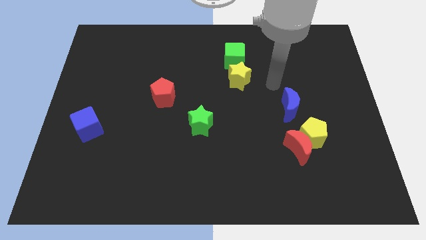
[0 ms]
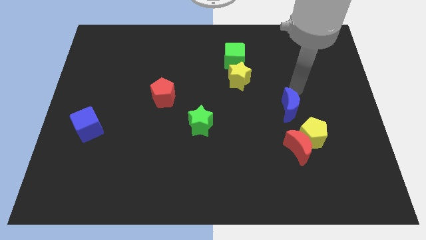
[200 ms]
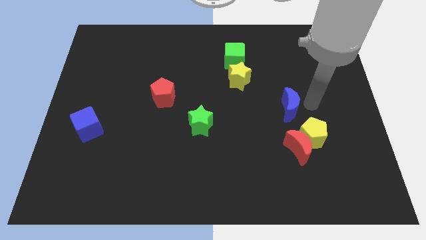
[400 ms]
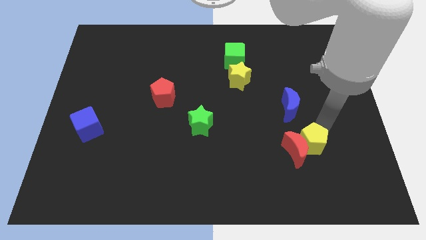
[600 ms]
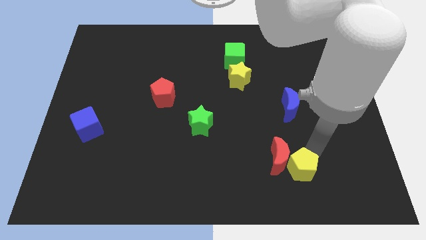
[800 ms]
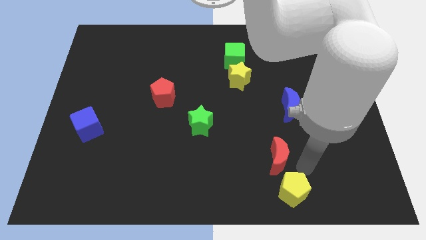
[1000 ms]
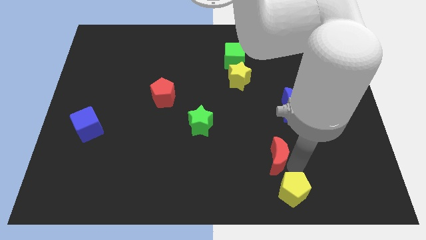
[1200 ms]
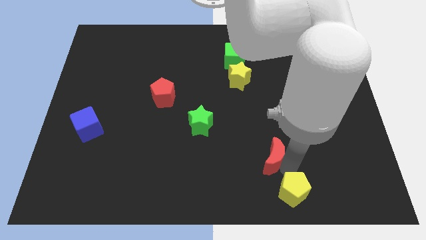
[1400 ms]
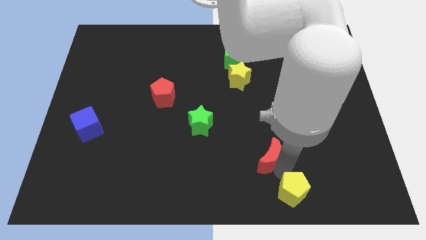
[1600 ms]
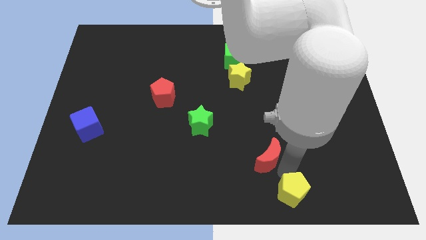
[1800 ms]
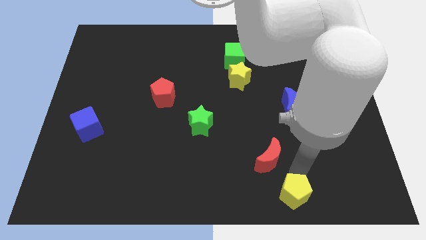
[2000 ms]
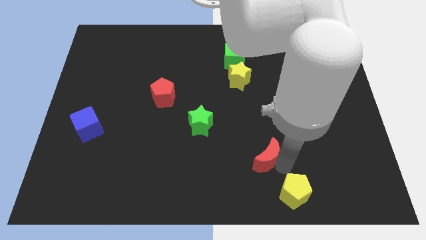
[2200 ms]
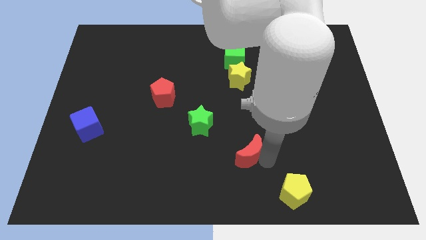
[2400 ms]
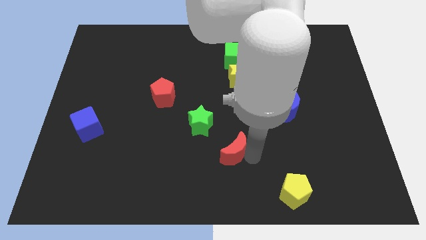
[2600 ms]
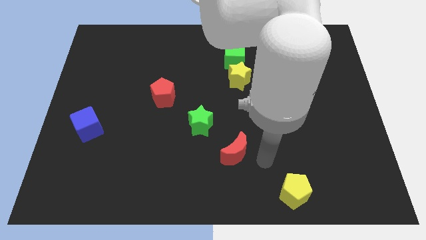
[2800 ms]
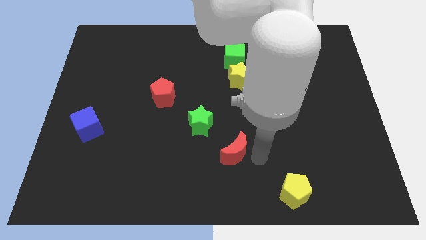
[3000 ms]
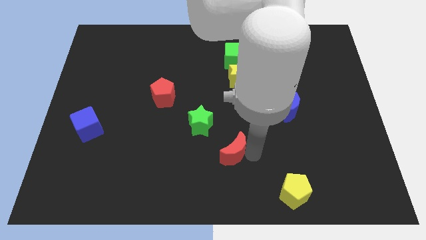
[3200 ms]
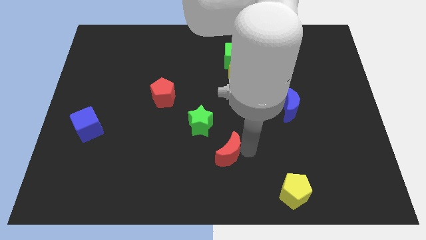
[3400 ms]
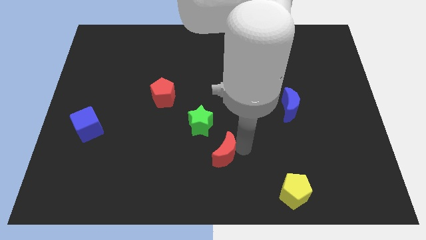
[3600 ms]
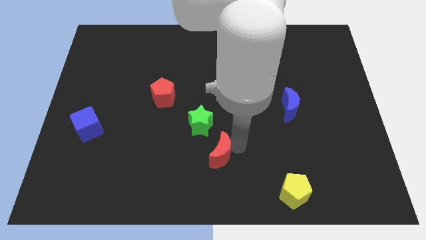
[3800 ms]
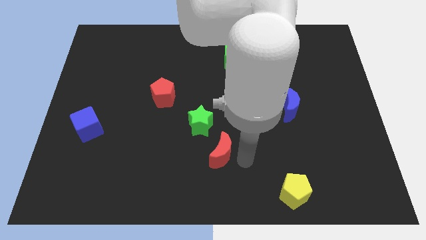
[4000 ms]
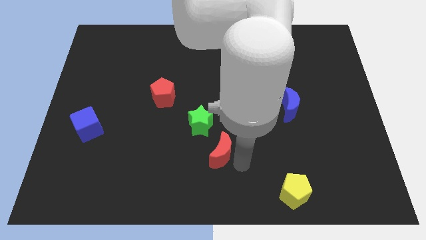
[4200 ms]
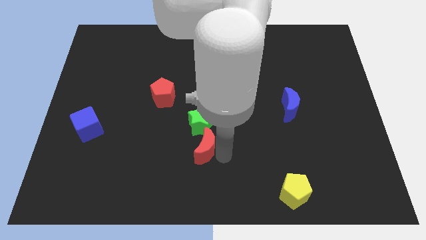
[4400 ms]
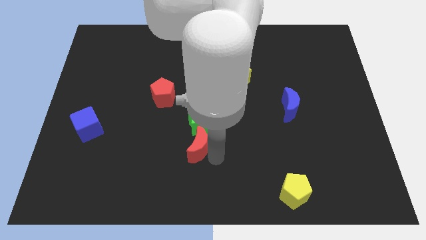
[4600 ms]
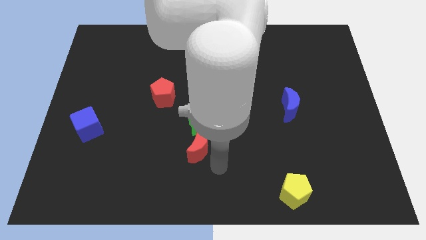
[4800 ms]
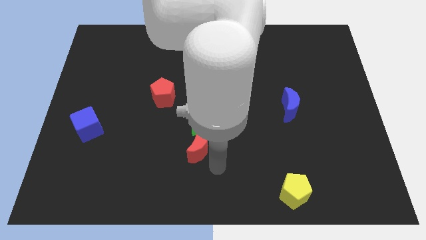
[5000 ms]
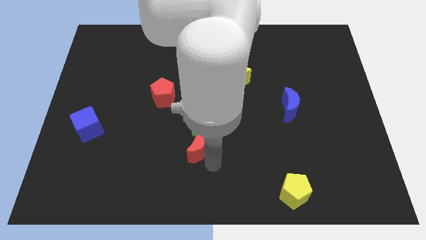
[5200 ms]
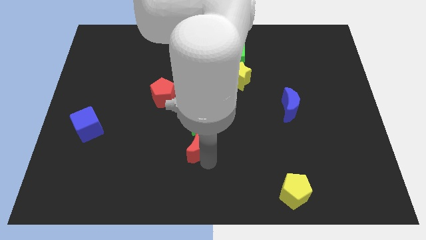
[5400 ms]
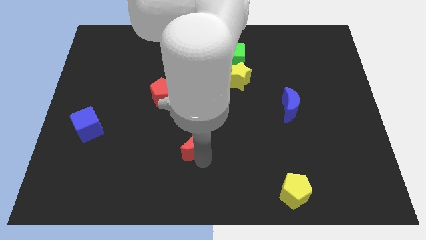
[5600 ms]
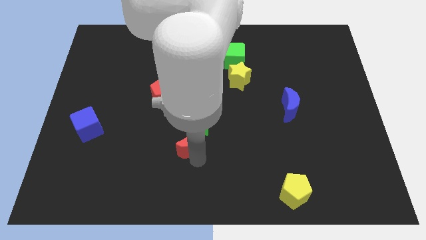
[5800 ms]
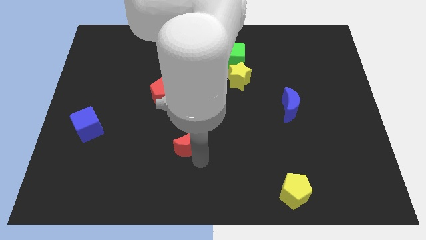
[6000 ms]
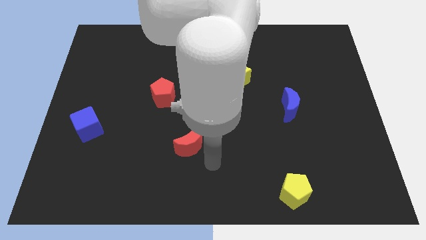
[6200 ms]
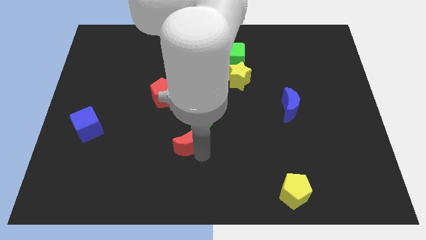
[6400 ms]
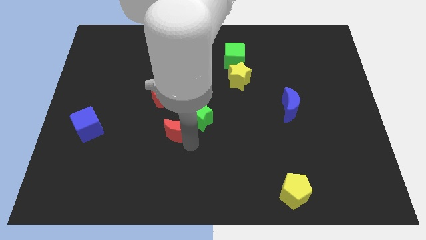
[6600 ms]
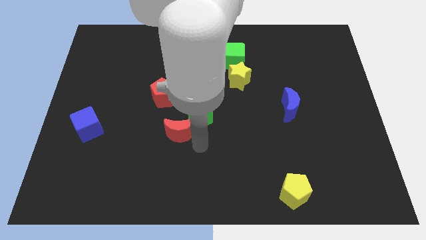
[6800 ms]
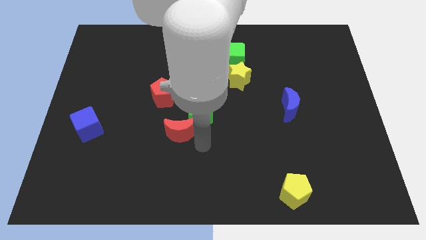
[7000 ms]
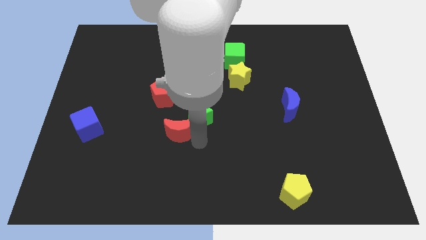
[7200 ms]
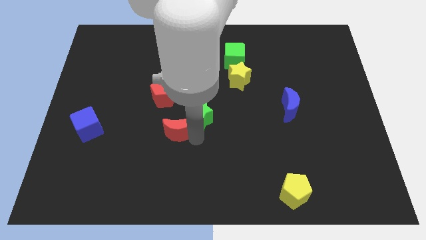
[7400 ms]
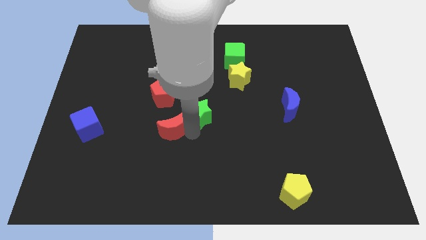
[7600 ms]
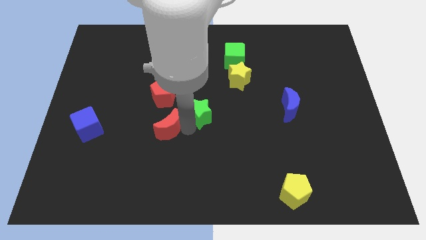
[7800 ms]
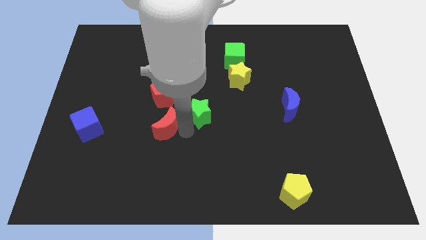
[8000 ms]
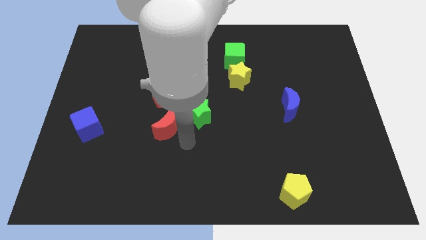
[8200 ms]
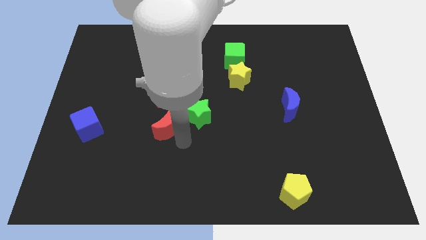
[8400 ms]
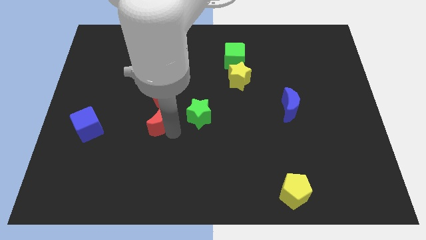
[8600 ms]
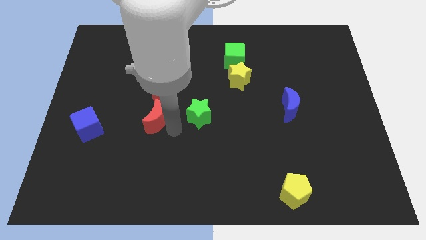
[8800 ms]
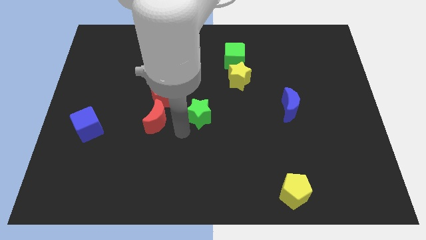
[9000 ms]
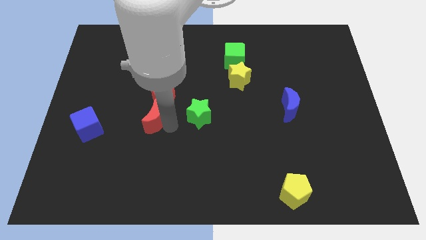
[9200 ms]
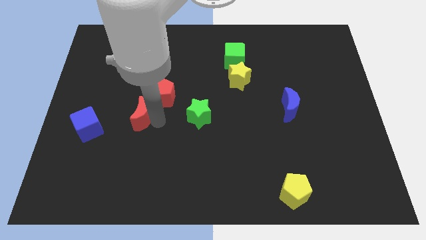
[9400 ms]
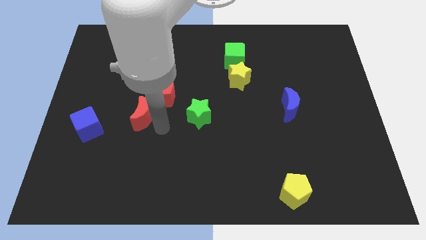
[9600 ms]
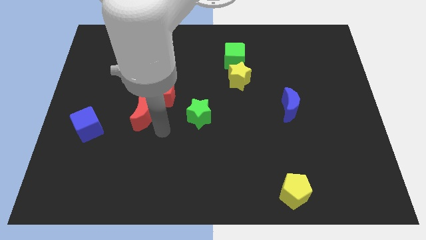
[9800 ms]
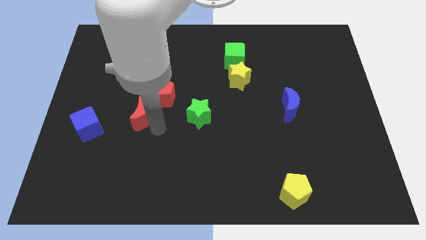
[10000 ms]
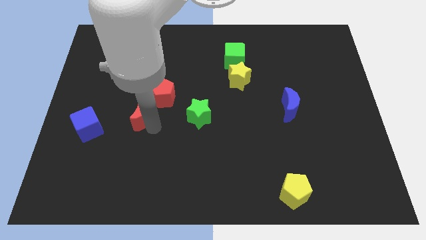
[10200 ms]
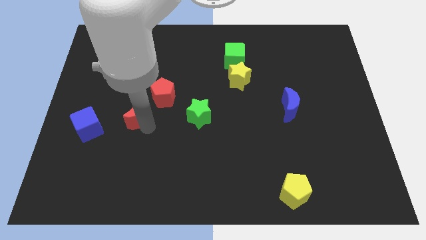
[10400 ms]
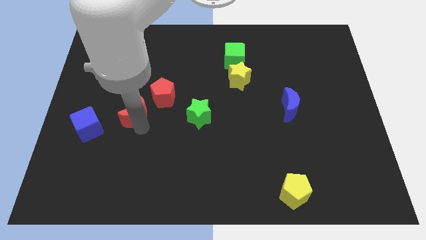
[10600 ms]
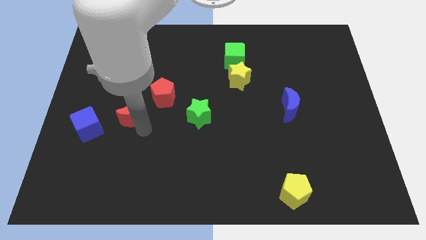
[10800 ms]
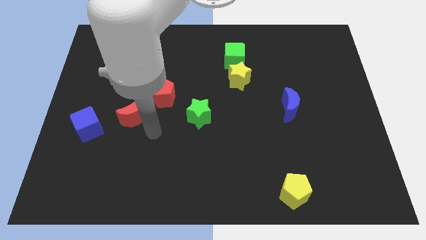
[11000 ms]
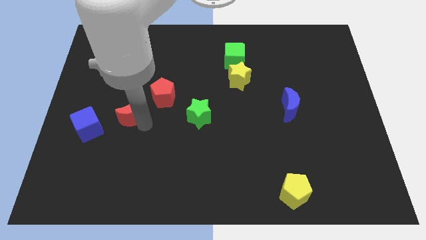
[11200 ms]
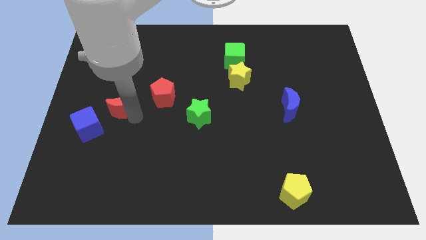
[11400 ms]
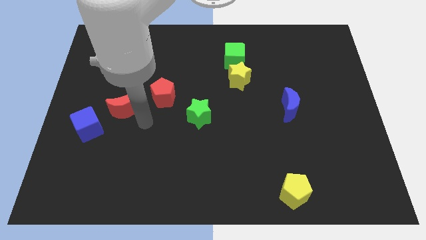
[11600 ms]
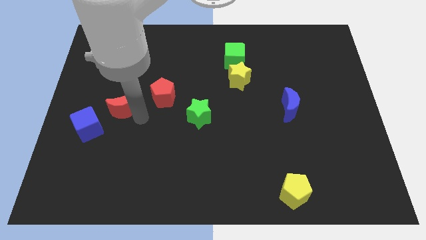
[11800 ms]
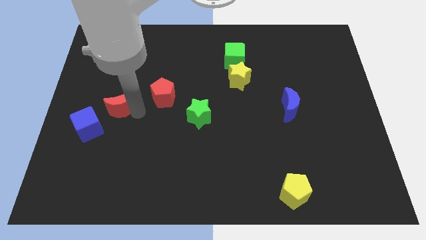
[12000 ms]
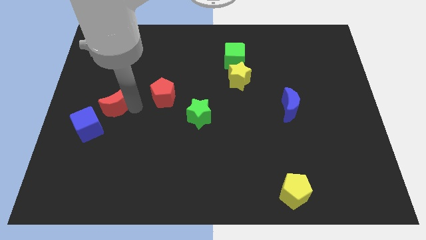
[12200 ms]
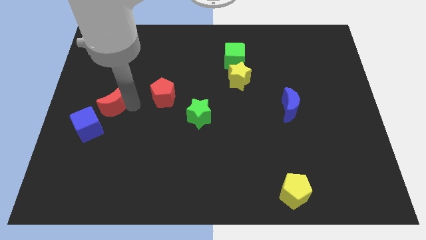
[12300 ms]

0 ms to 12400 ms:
put the red moon to the top side of the blue cube

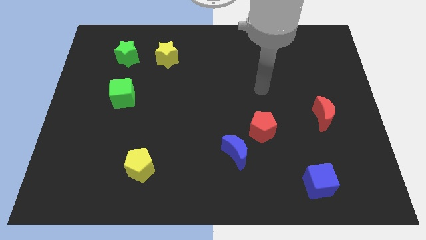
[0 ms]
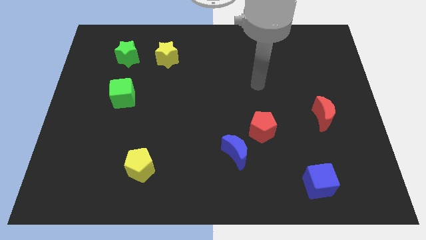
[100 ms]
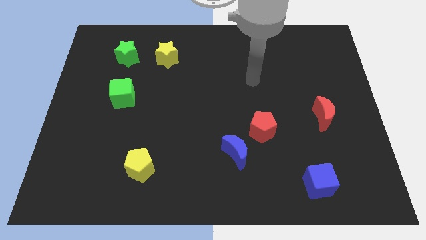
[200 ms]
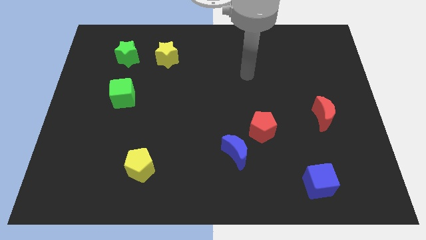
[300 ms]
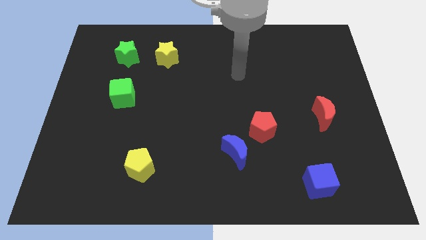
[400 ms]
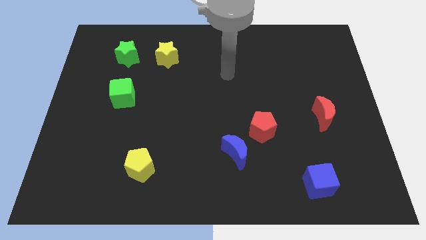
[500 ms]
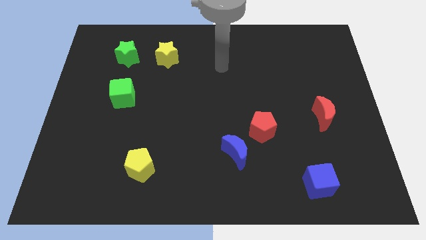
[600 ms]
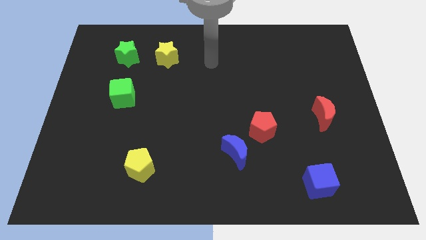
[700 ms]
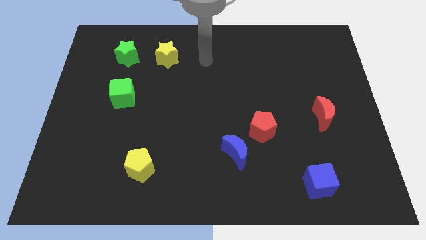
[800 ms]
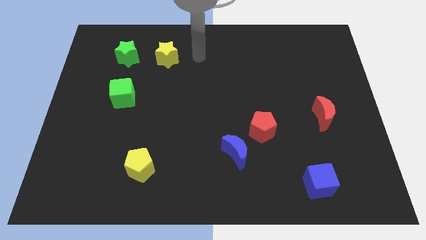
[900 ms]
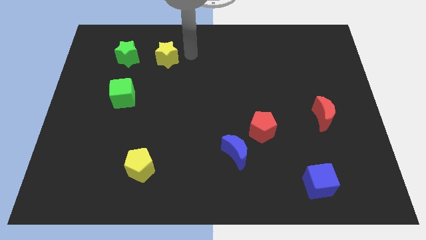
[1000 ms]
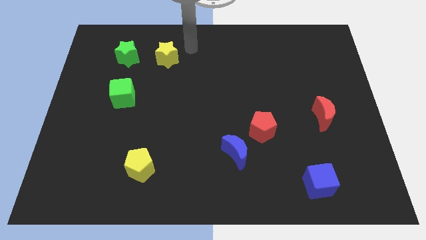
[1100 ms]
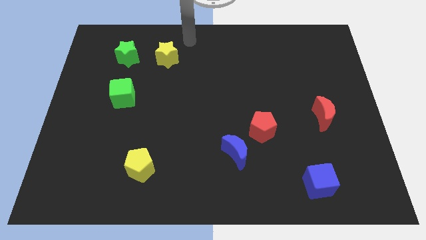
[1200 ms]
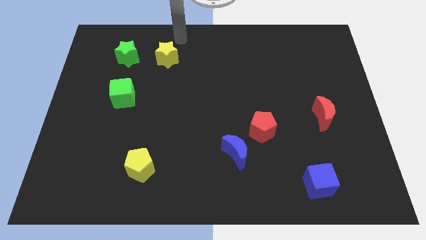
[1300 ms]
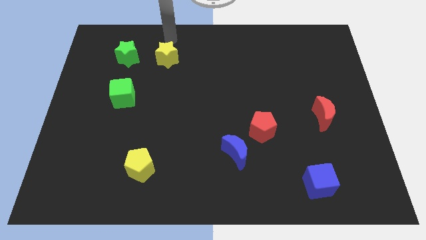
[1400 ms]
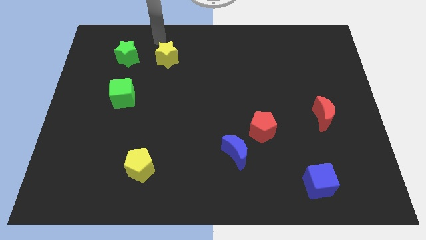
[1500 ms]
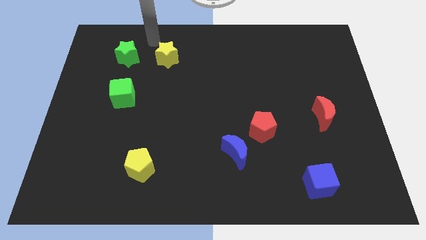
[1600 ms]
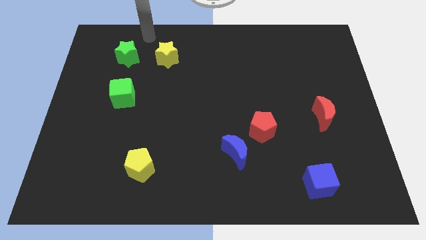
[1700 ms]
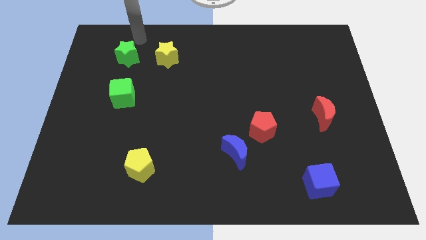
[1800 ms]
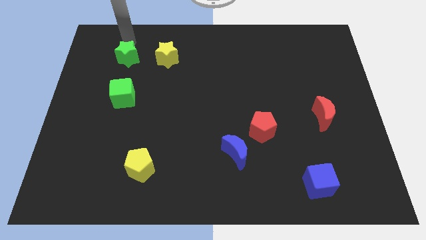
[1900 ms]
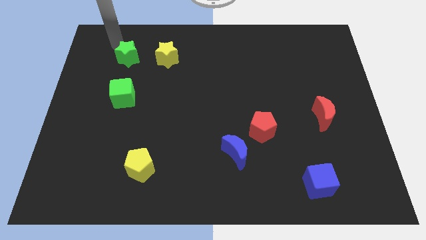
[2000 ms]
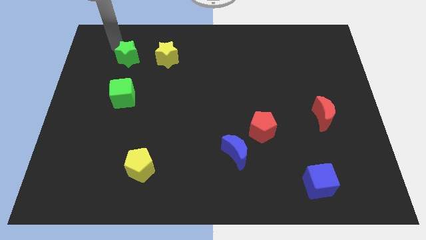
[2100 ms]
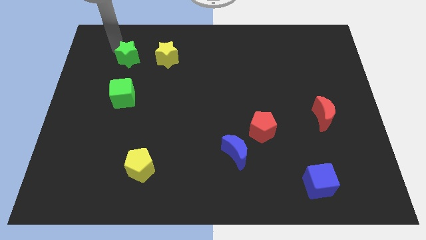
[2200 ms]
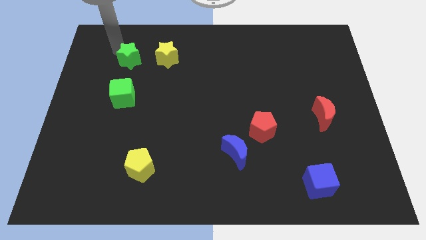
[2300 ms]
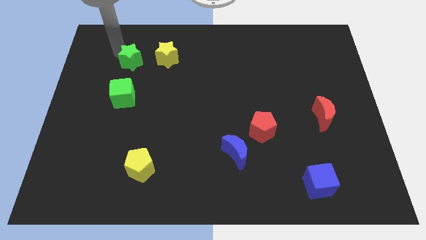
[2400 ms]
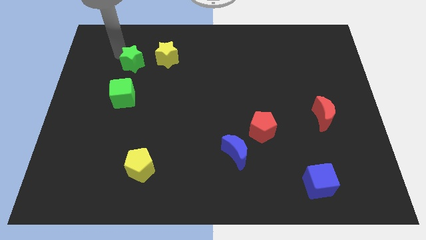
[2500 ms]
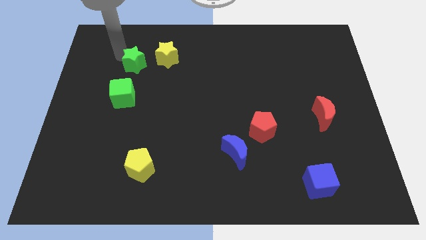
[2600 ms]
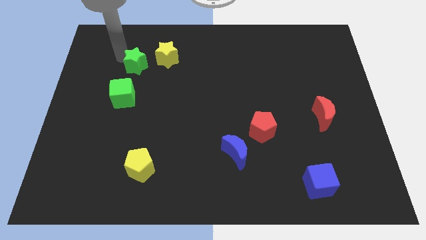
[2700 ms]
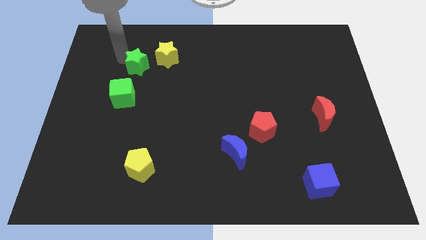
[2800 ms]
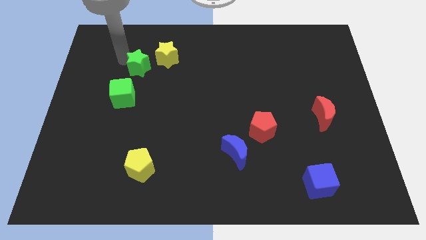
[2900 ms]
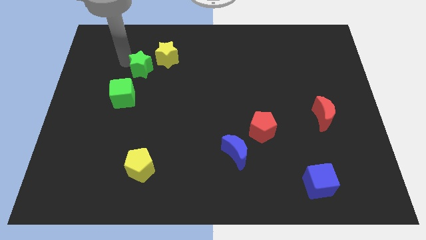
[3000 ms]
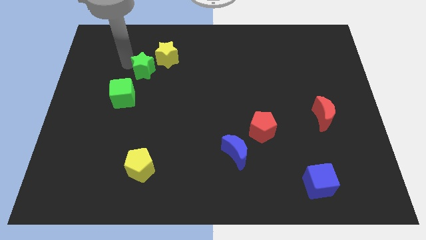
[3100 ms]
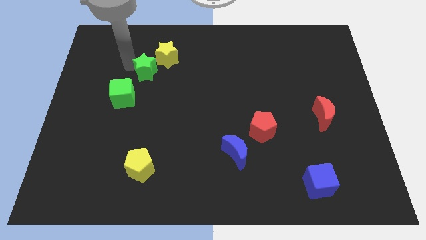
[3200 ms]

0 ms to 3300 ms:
push the green star below the yellow star
